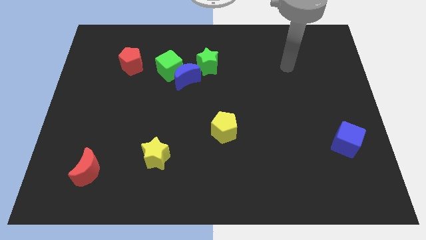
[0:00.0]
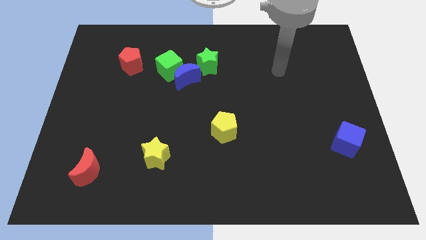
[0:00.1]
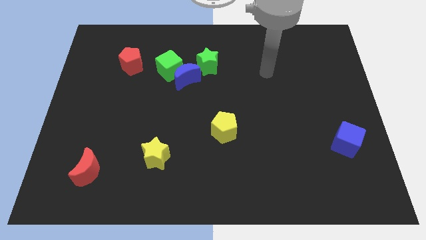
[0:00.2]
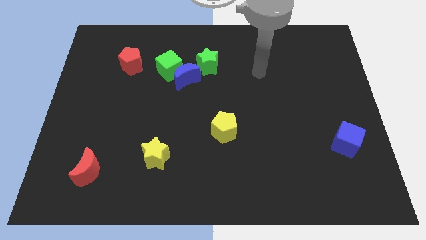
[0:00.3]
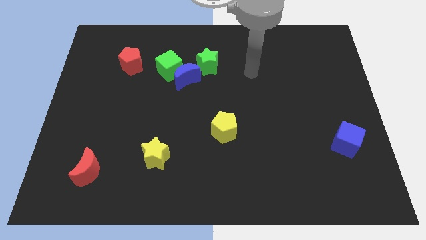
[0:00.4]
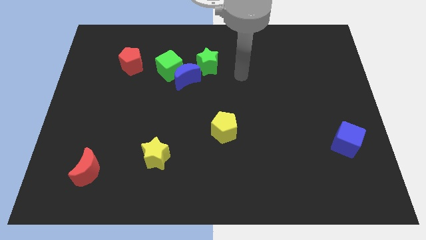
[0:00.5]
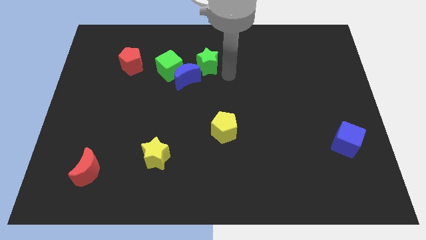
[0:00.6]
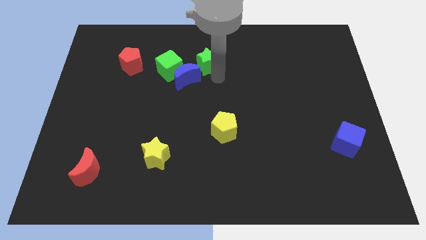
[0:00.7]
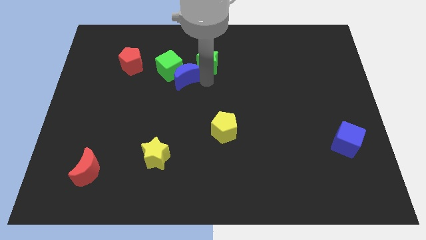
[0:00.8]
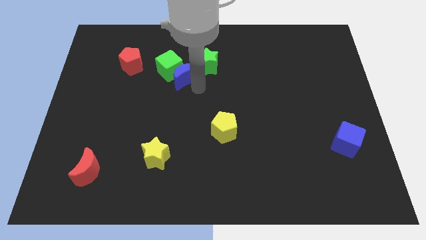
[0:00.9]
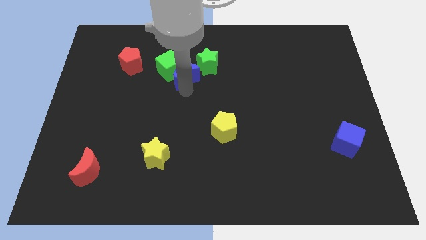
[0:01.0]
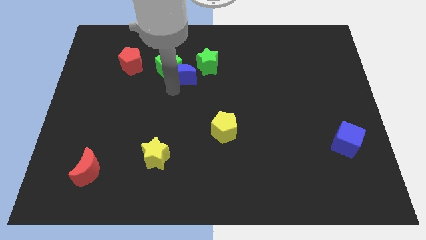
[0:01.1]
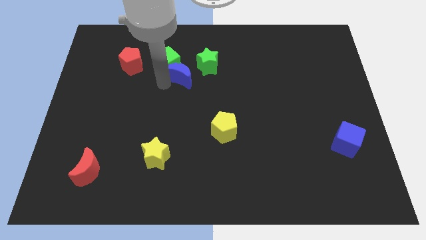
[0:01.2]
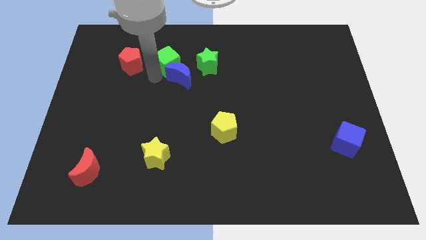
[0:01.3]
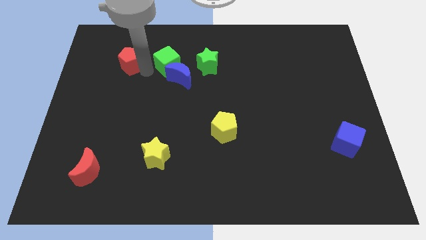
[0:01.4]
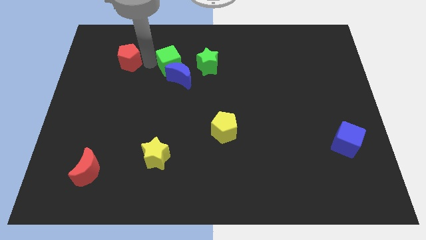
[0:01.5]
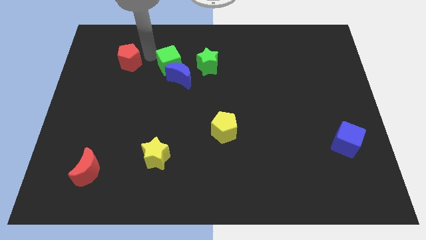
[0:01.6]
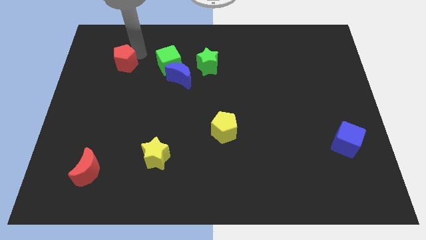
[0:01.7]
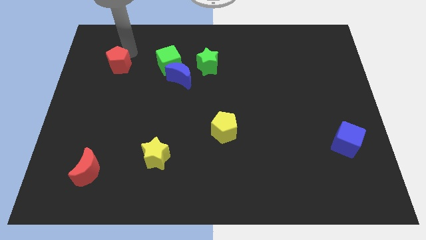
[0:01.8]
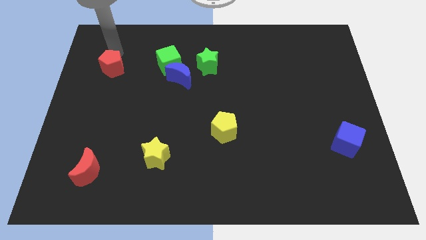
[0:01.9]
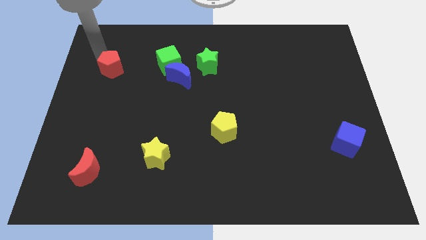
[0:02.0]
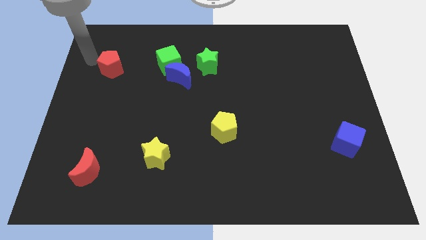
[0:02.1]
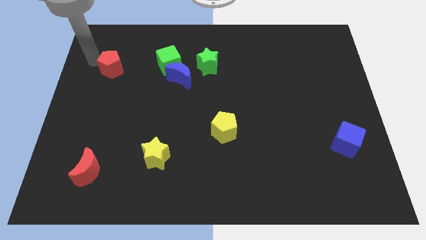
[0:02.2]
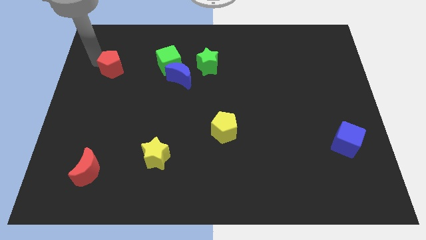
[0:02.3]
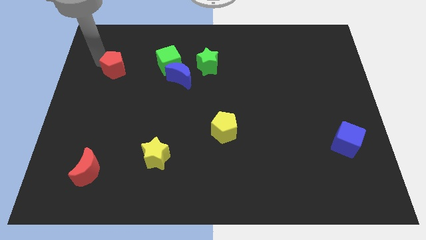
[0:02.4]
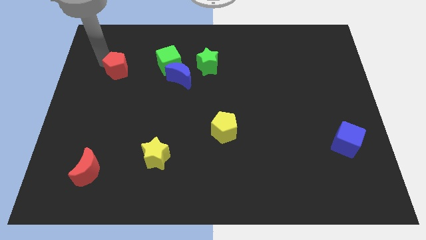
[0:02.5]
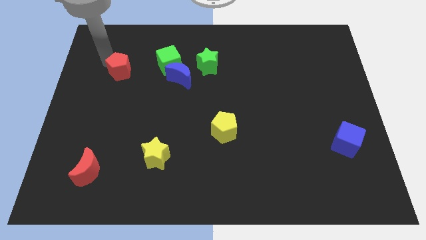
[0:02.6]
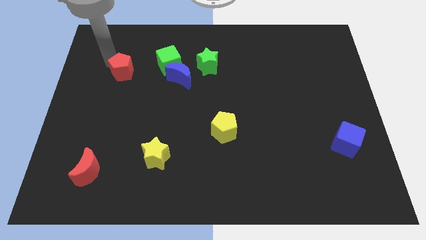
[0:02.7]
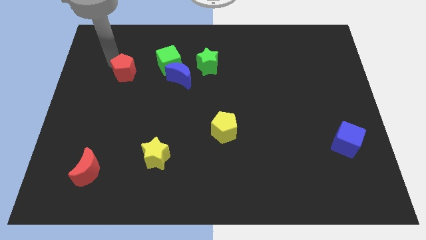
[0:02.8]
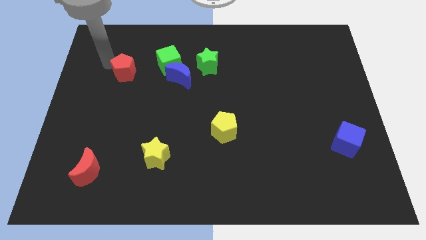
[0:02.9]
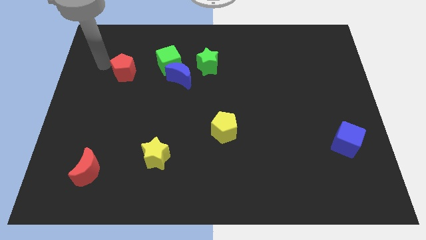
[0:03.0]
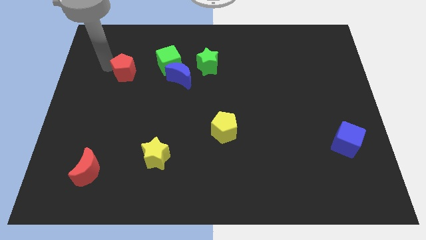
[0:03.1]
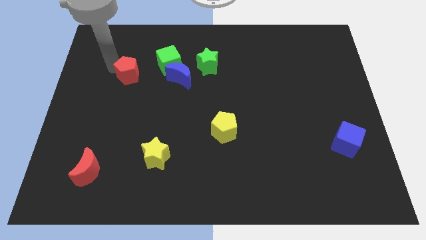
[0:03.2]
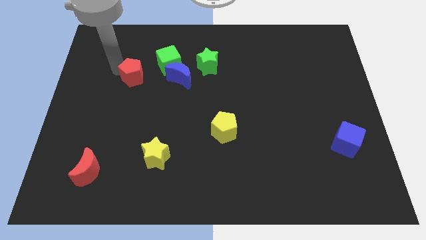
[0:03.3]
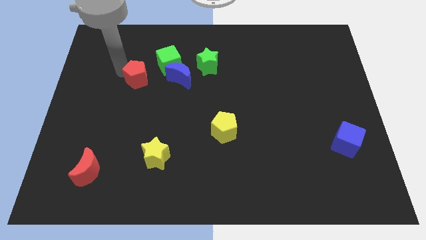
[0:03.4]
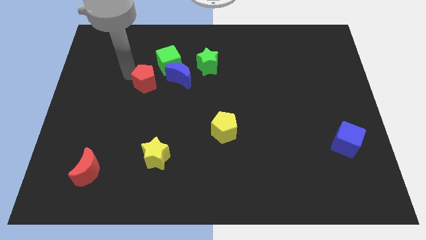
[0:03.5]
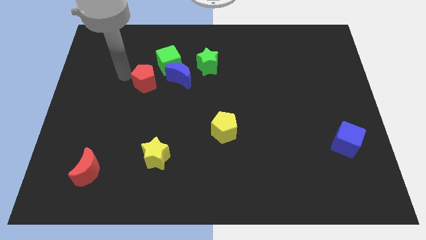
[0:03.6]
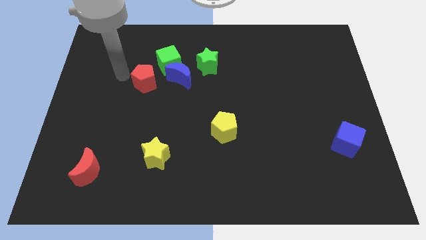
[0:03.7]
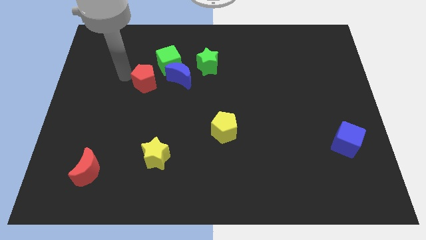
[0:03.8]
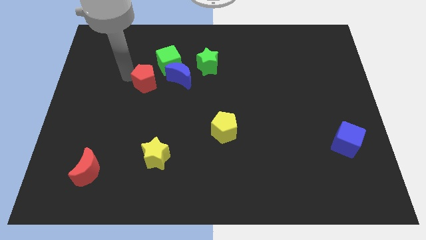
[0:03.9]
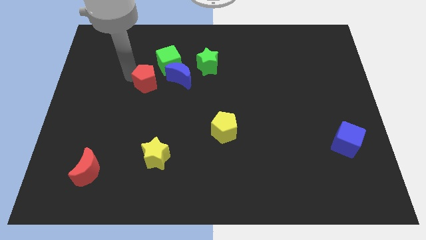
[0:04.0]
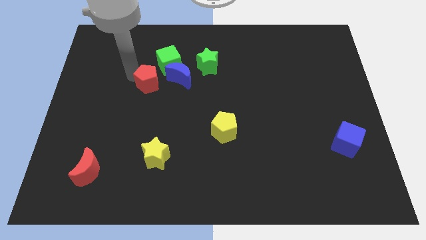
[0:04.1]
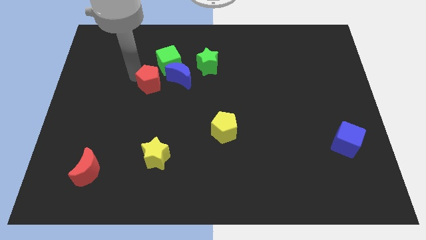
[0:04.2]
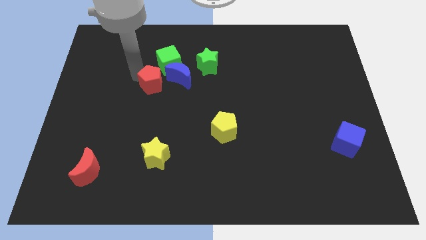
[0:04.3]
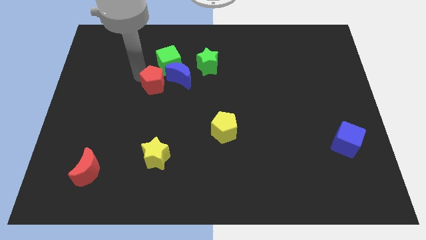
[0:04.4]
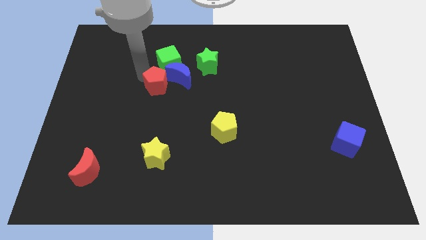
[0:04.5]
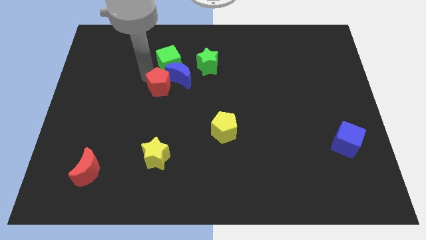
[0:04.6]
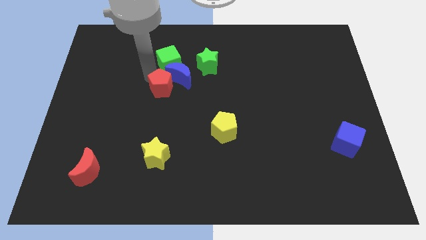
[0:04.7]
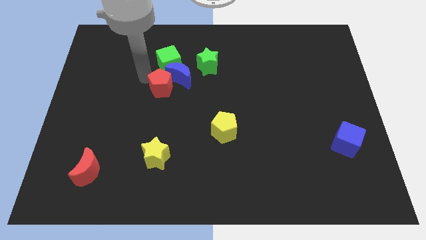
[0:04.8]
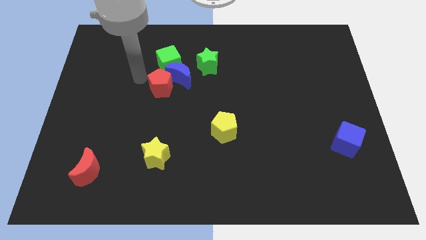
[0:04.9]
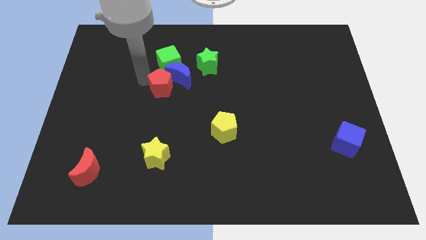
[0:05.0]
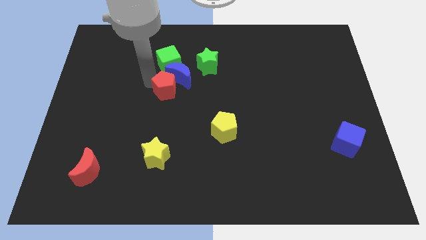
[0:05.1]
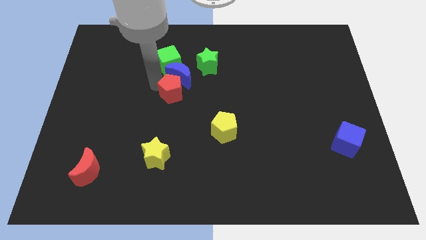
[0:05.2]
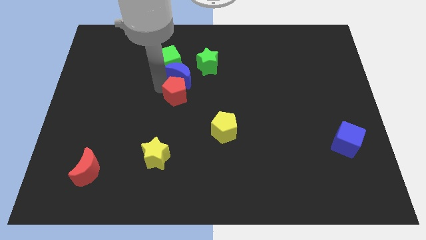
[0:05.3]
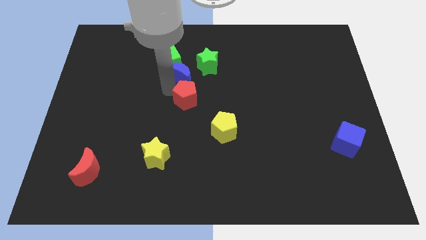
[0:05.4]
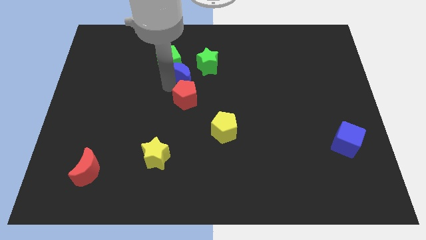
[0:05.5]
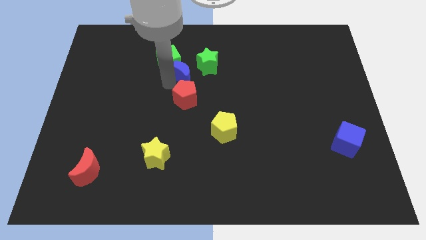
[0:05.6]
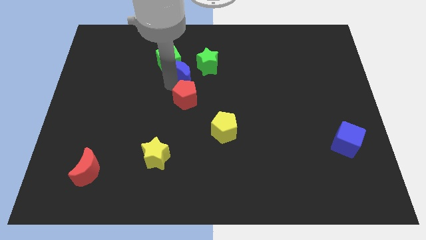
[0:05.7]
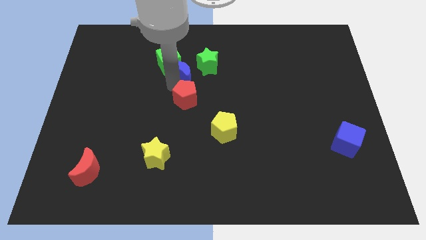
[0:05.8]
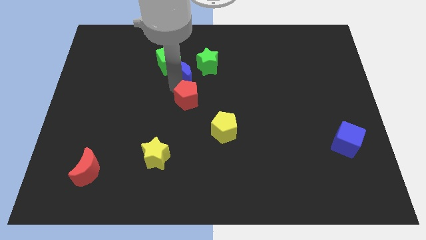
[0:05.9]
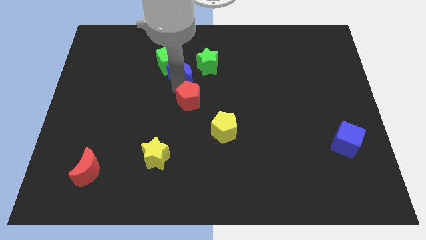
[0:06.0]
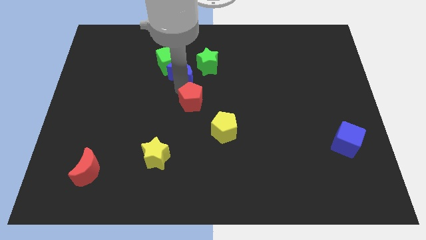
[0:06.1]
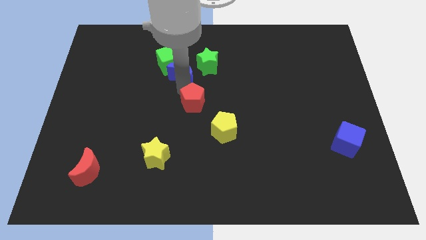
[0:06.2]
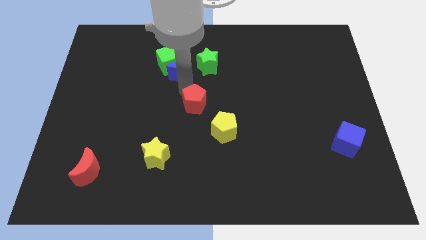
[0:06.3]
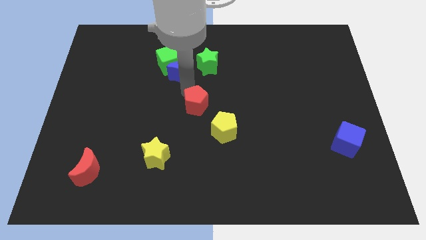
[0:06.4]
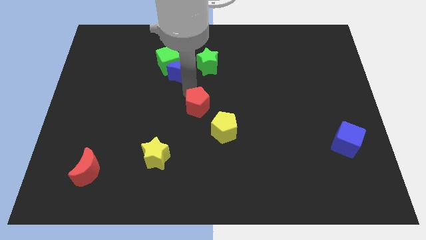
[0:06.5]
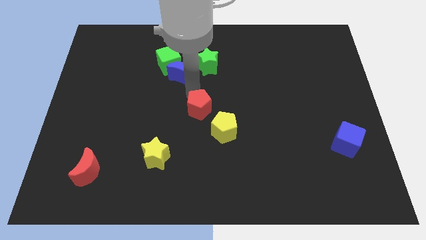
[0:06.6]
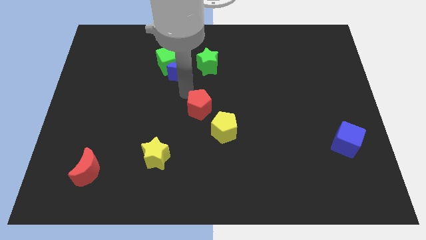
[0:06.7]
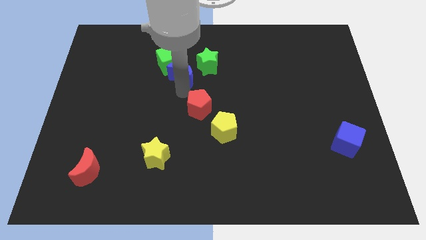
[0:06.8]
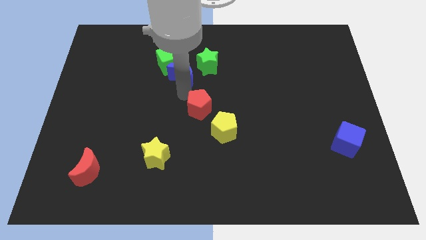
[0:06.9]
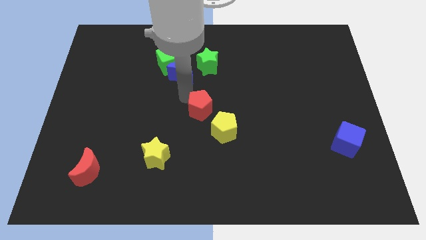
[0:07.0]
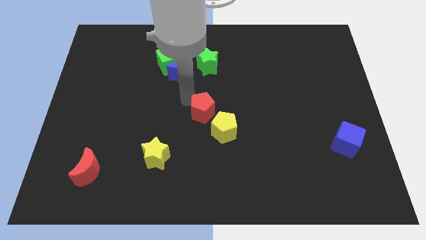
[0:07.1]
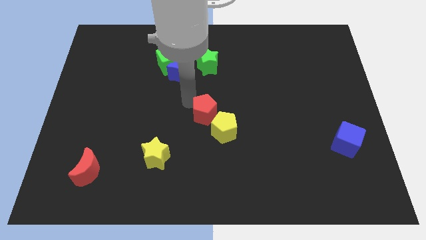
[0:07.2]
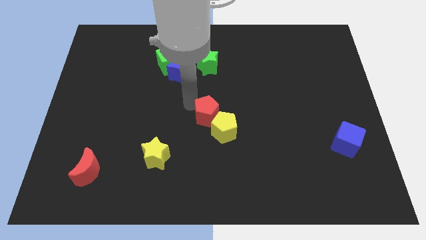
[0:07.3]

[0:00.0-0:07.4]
push the red pentagon close to the yellow pentagon
